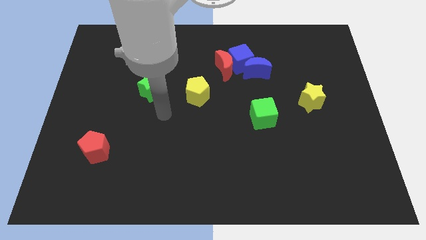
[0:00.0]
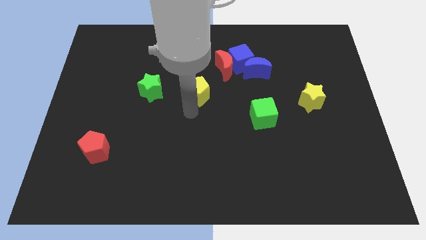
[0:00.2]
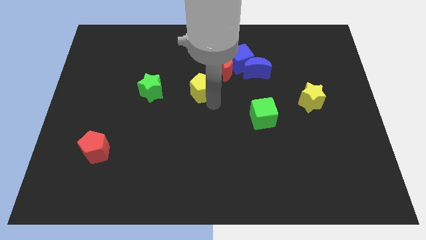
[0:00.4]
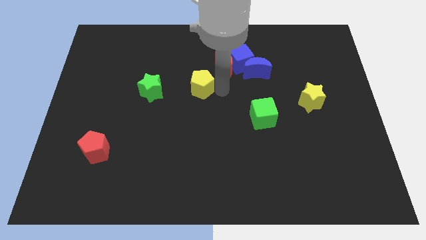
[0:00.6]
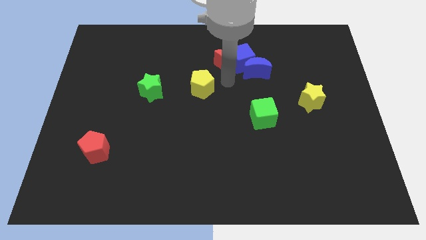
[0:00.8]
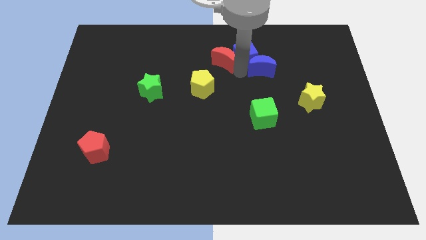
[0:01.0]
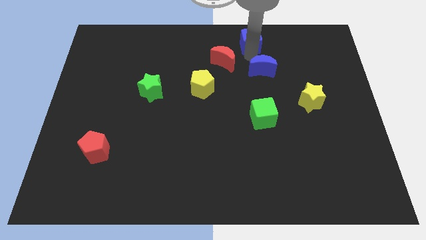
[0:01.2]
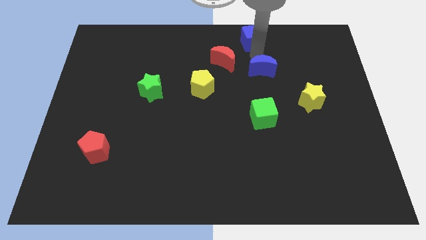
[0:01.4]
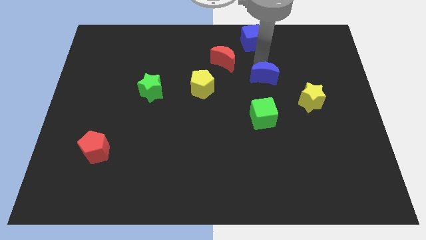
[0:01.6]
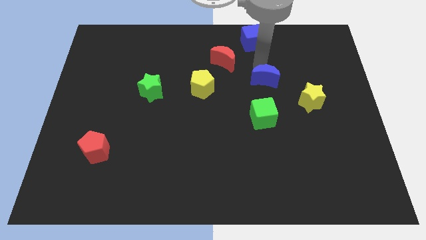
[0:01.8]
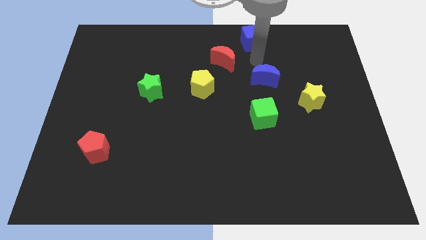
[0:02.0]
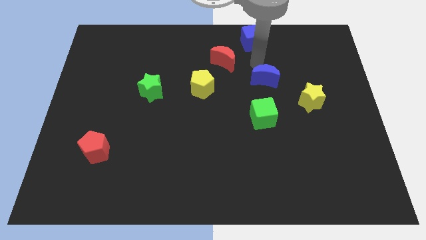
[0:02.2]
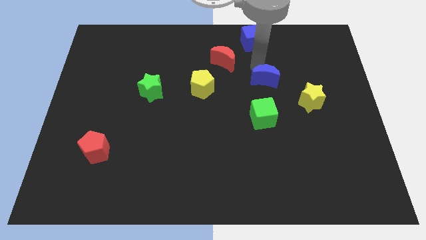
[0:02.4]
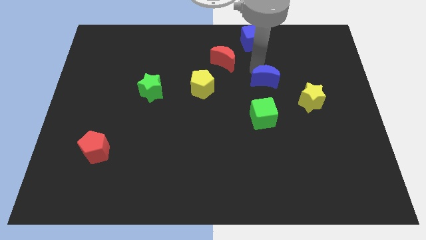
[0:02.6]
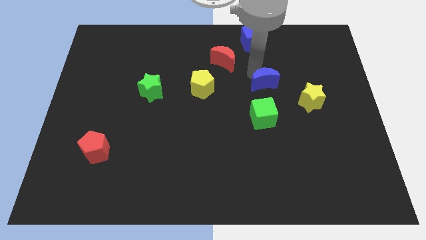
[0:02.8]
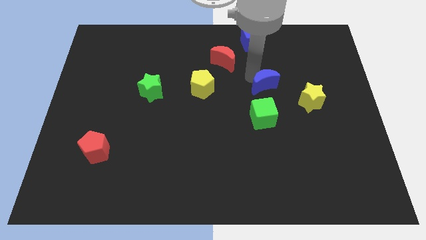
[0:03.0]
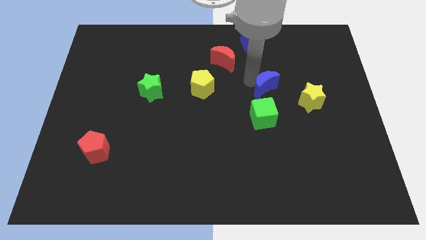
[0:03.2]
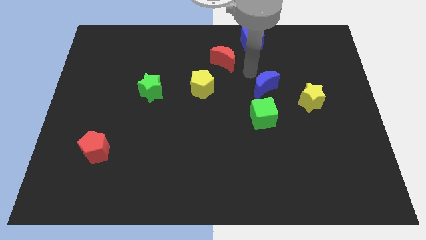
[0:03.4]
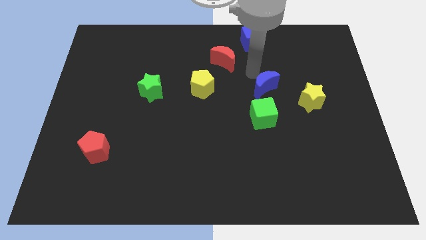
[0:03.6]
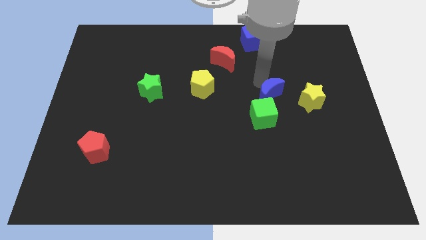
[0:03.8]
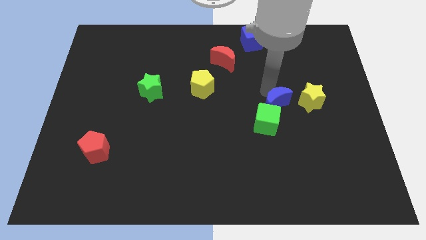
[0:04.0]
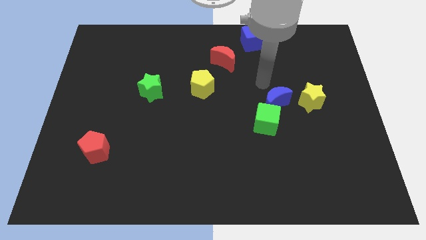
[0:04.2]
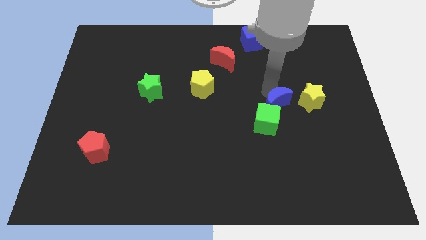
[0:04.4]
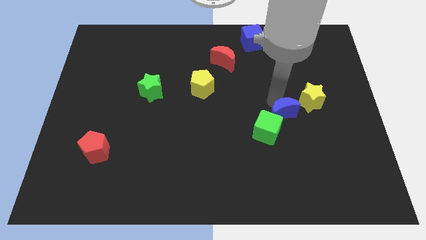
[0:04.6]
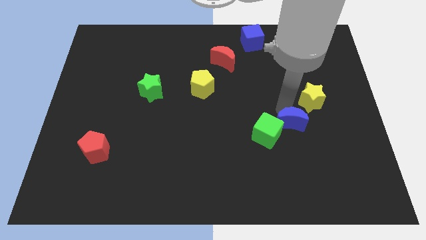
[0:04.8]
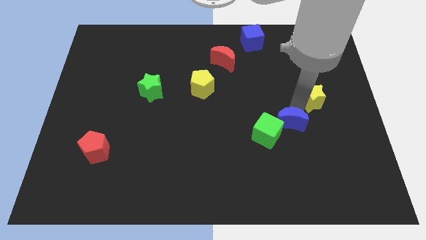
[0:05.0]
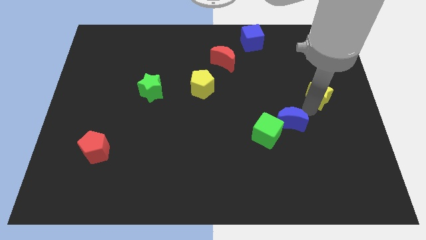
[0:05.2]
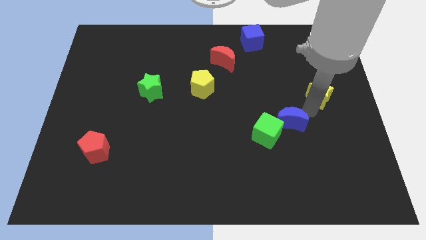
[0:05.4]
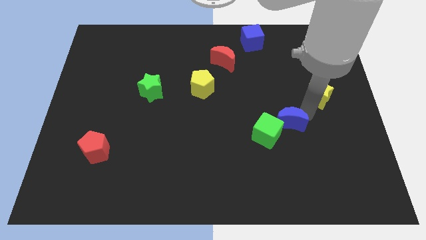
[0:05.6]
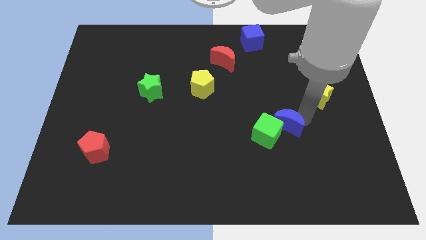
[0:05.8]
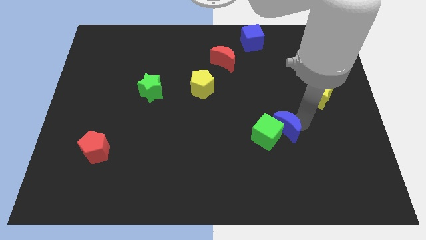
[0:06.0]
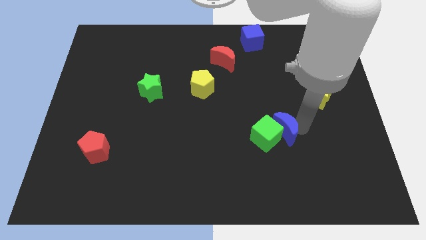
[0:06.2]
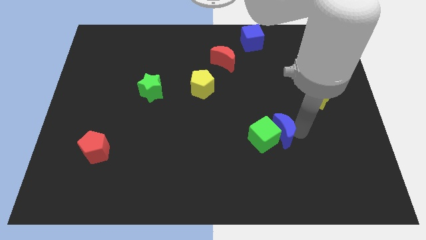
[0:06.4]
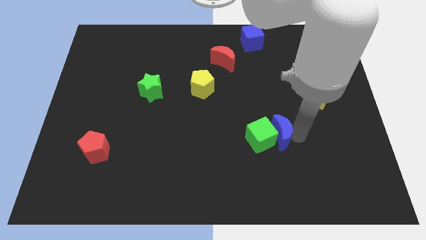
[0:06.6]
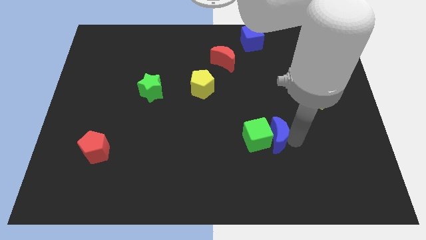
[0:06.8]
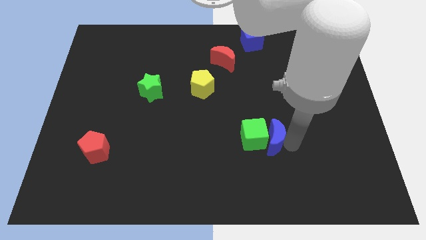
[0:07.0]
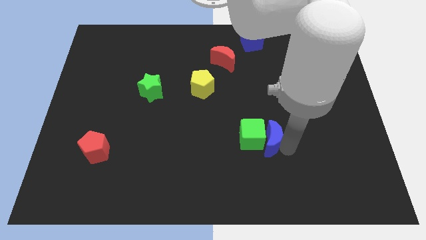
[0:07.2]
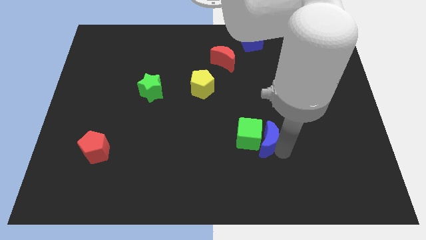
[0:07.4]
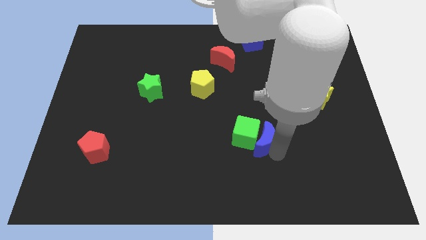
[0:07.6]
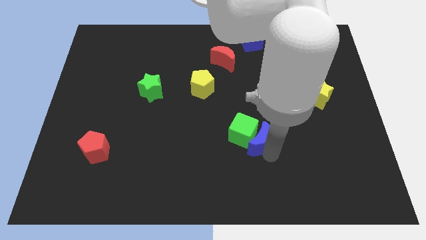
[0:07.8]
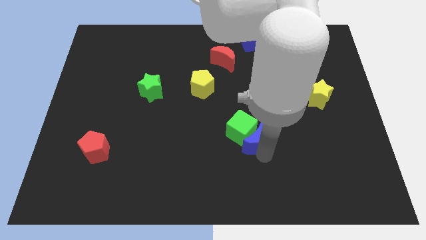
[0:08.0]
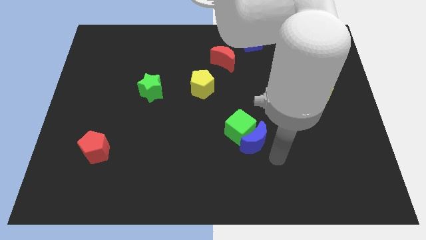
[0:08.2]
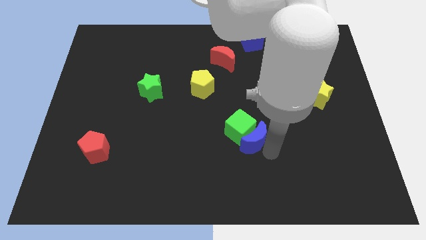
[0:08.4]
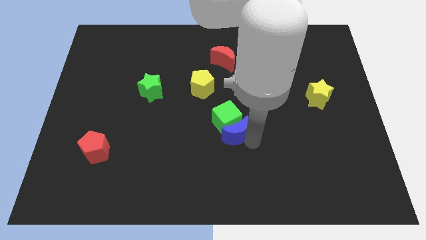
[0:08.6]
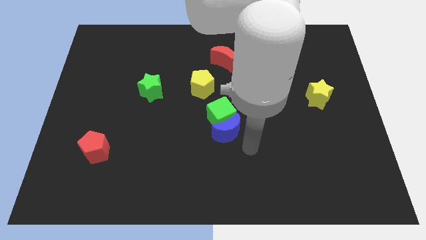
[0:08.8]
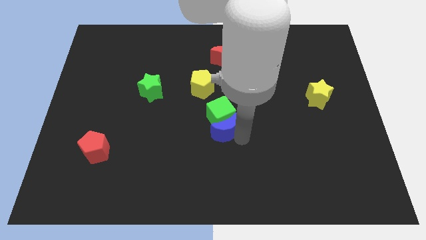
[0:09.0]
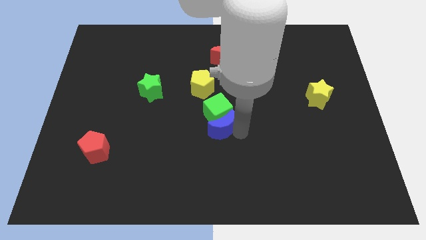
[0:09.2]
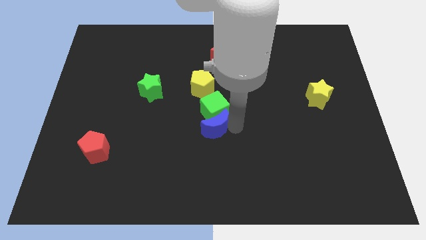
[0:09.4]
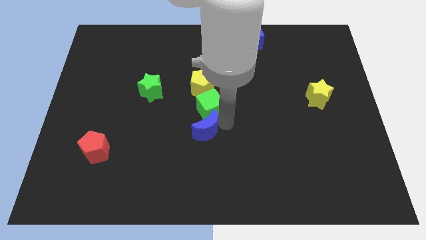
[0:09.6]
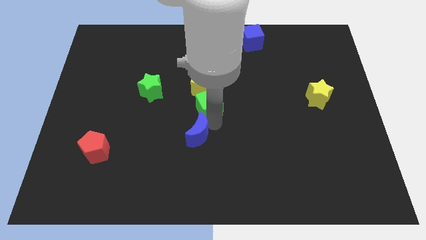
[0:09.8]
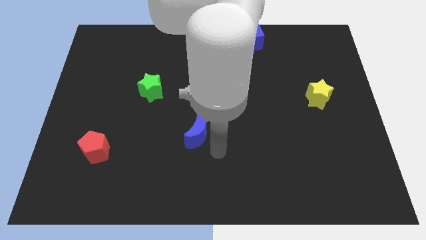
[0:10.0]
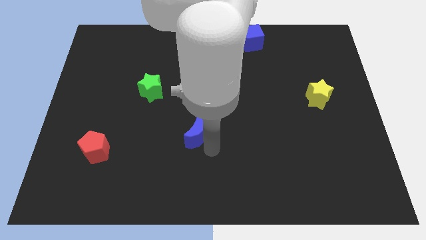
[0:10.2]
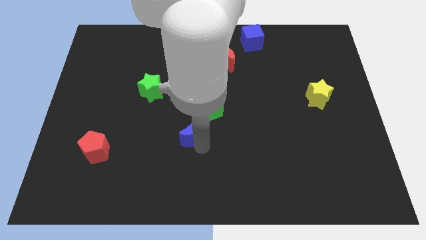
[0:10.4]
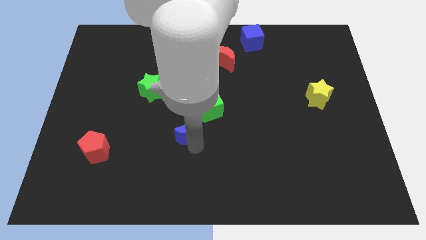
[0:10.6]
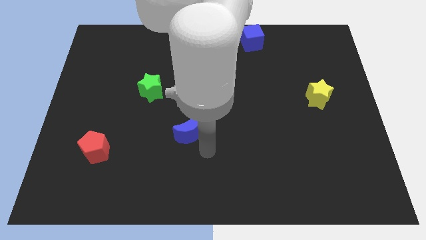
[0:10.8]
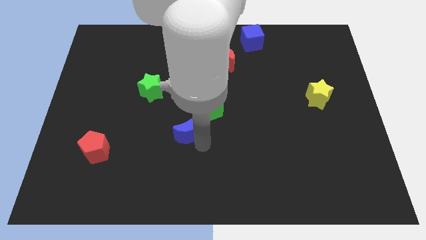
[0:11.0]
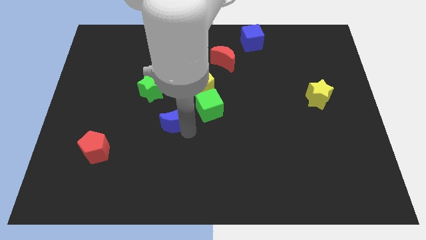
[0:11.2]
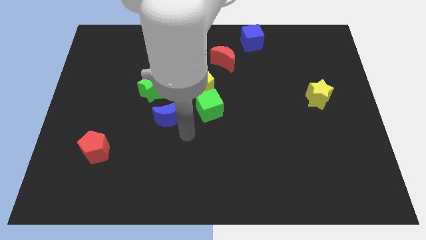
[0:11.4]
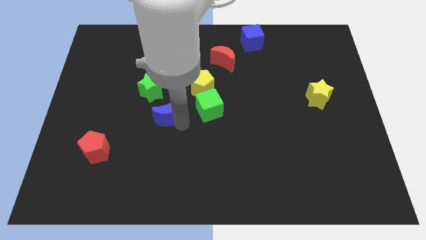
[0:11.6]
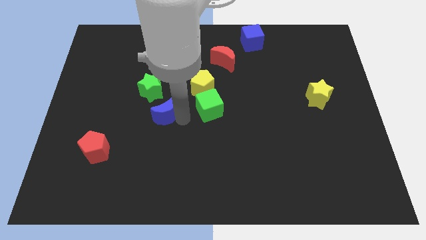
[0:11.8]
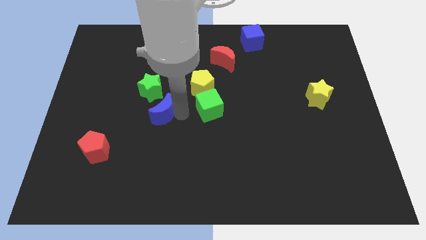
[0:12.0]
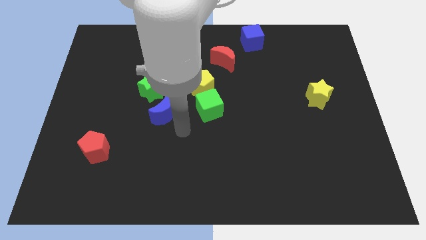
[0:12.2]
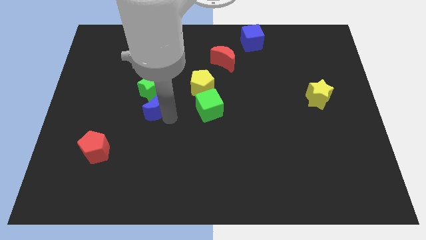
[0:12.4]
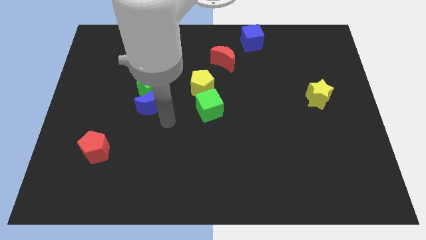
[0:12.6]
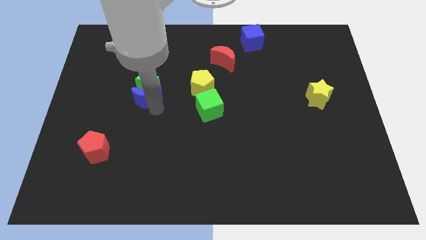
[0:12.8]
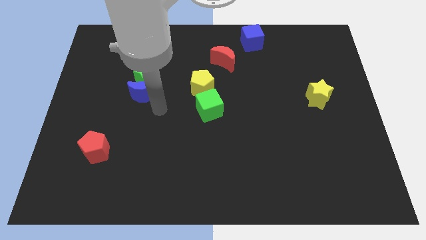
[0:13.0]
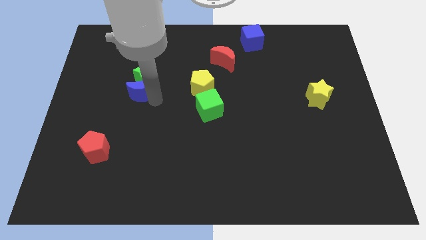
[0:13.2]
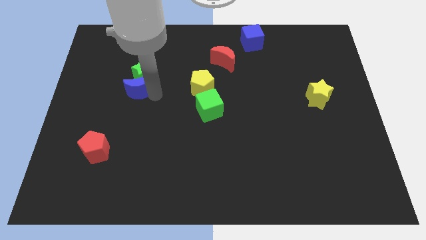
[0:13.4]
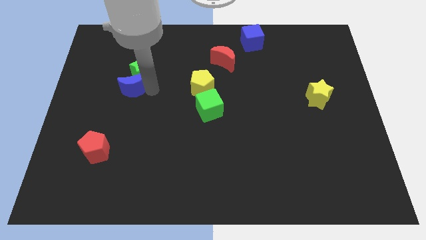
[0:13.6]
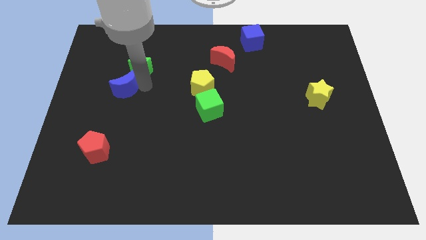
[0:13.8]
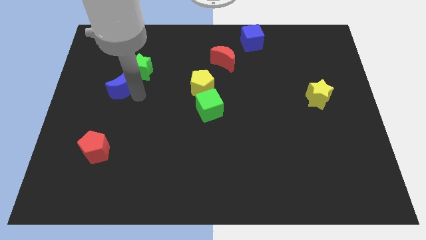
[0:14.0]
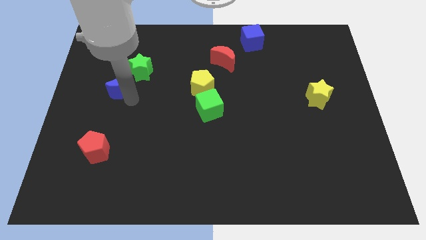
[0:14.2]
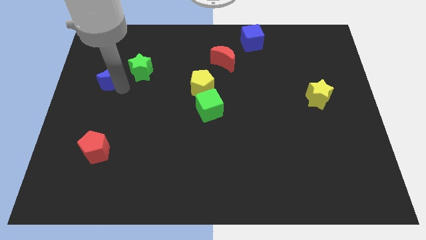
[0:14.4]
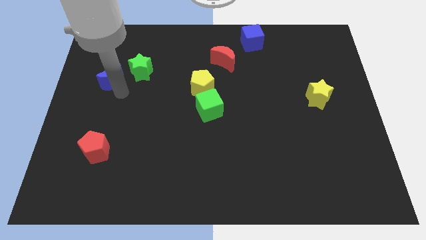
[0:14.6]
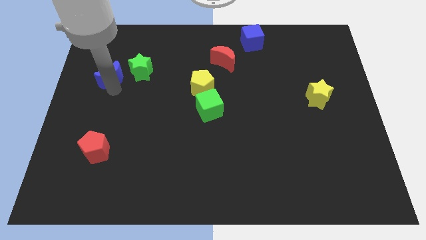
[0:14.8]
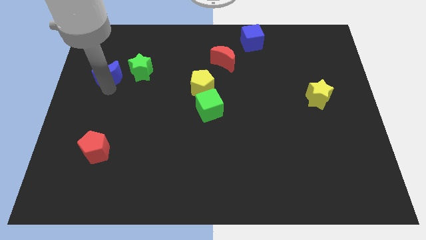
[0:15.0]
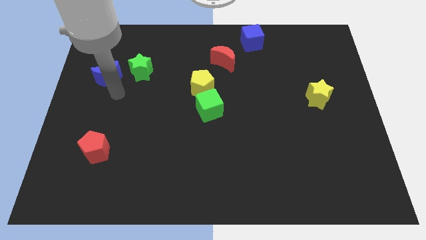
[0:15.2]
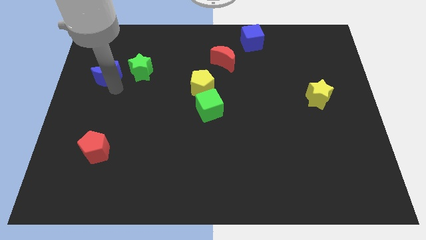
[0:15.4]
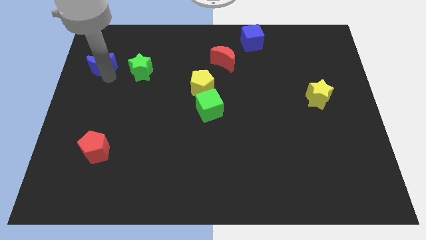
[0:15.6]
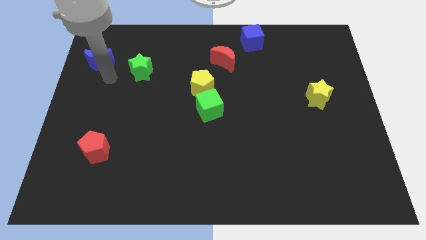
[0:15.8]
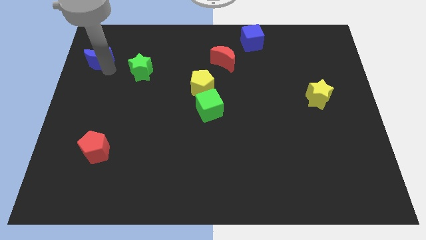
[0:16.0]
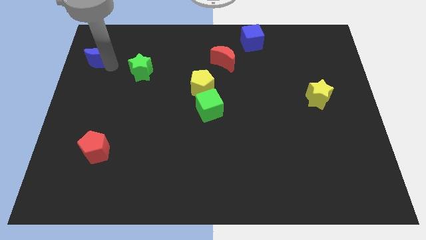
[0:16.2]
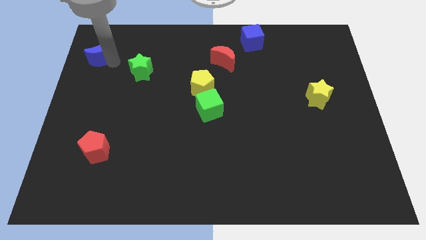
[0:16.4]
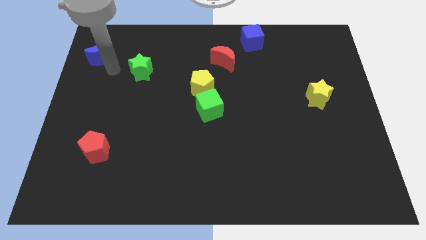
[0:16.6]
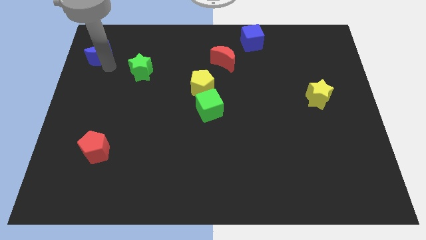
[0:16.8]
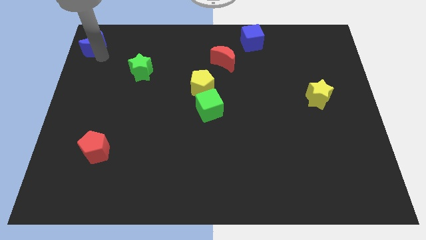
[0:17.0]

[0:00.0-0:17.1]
slide the blue moon to the top left of the board
